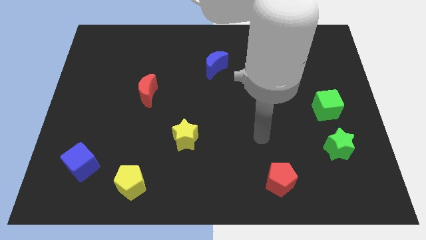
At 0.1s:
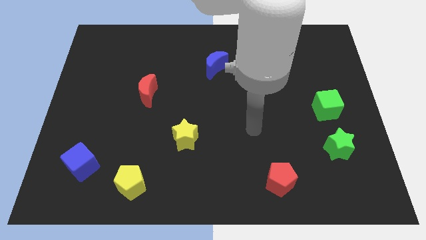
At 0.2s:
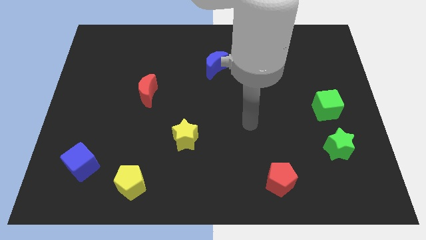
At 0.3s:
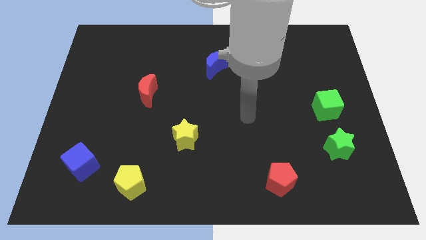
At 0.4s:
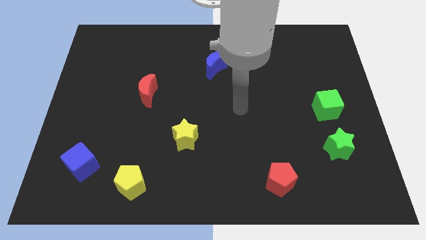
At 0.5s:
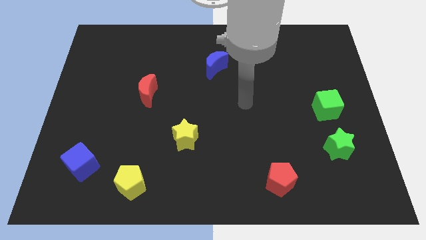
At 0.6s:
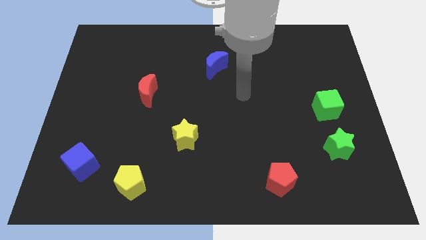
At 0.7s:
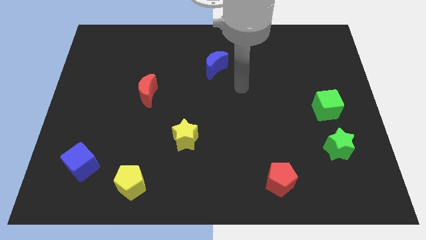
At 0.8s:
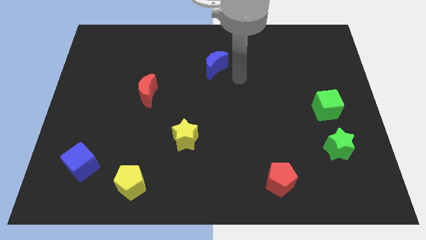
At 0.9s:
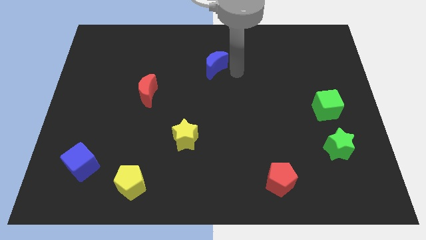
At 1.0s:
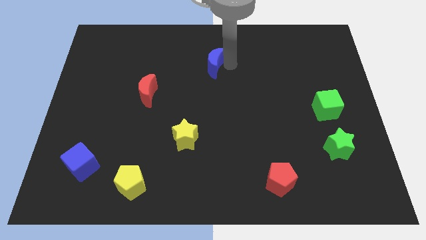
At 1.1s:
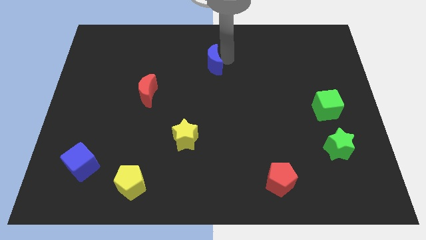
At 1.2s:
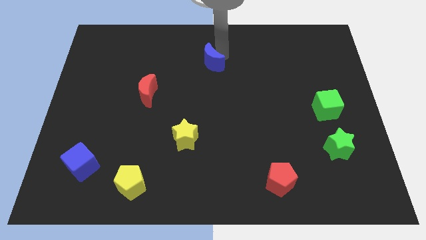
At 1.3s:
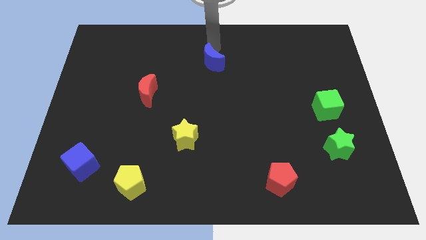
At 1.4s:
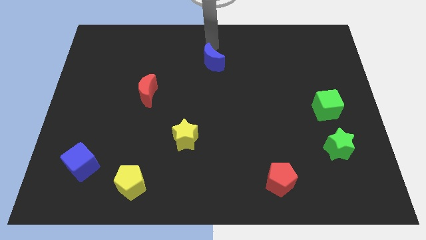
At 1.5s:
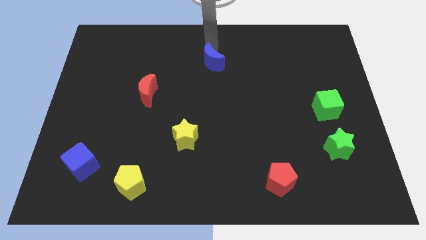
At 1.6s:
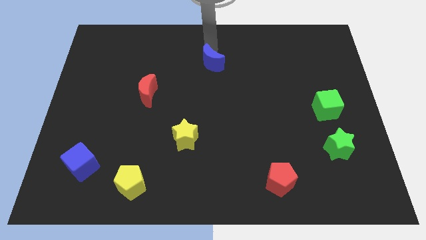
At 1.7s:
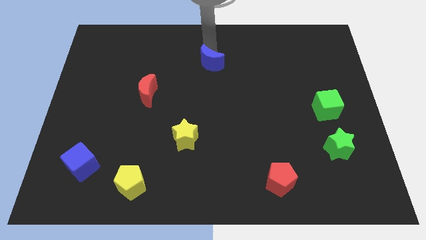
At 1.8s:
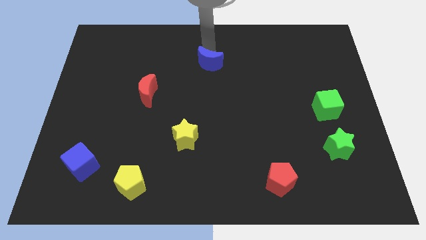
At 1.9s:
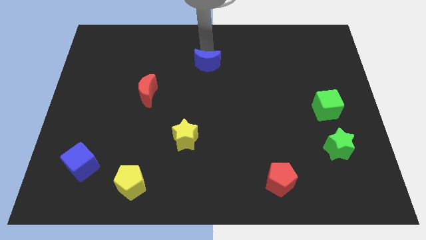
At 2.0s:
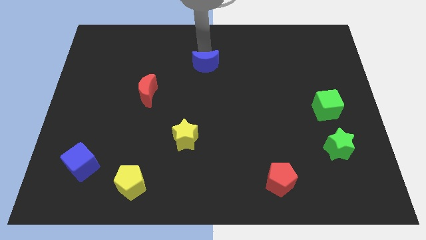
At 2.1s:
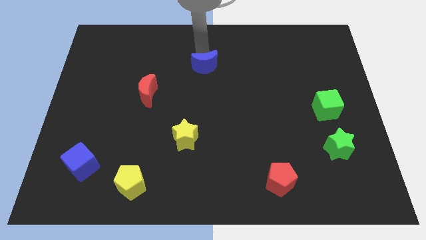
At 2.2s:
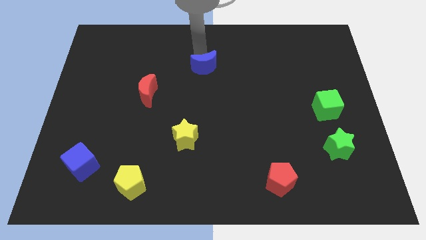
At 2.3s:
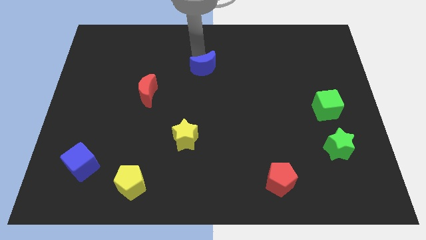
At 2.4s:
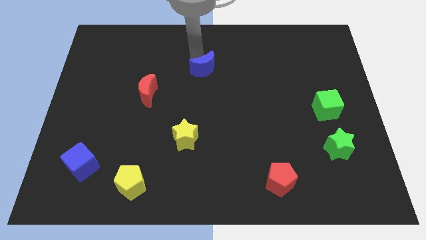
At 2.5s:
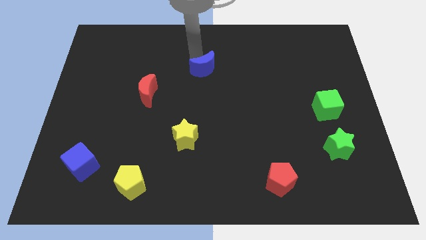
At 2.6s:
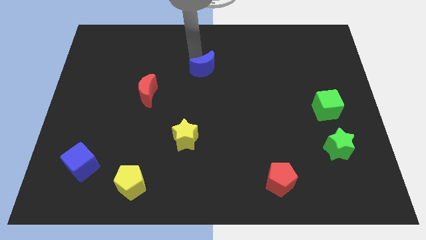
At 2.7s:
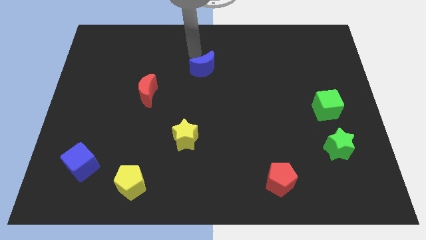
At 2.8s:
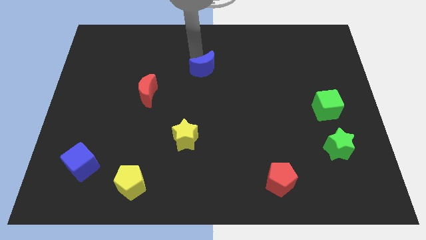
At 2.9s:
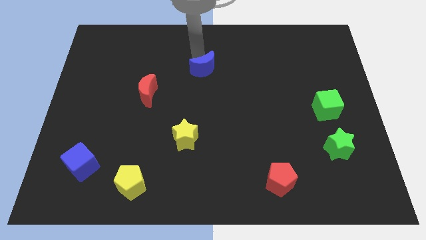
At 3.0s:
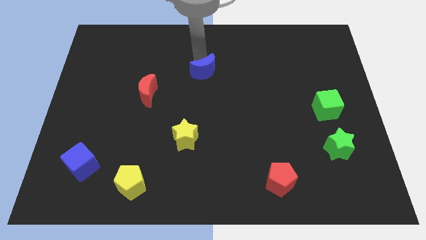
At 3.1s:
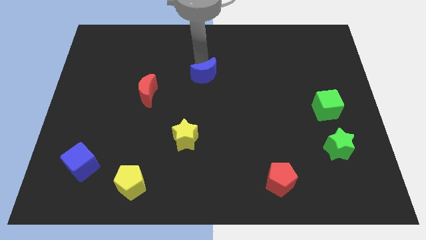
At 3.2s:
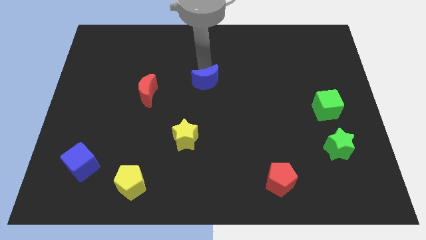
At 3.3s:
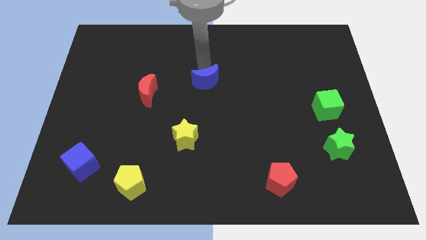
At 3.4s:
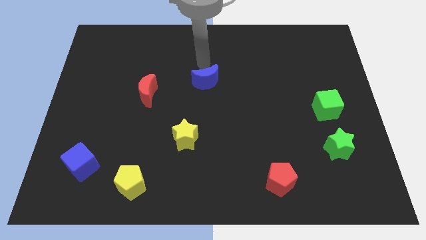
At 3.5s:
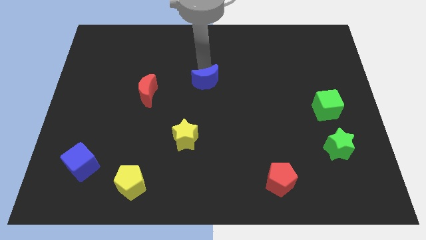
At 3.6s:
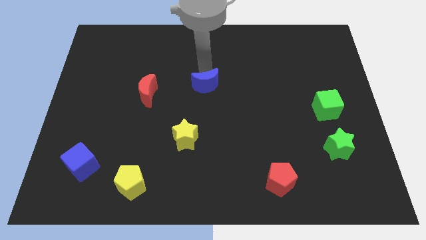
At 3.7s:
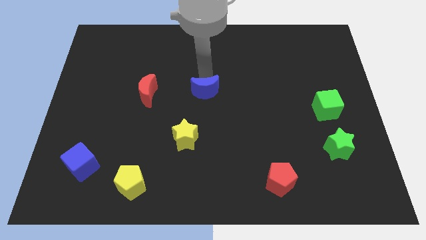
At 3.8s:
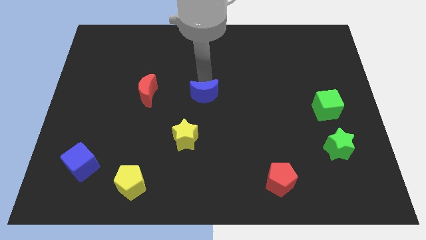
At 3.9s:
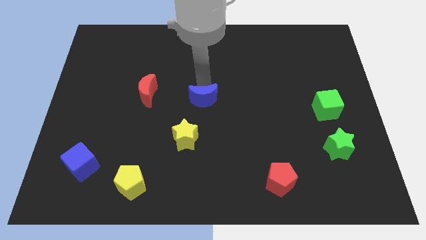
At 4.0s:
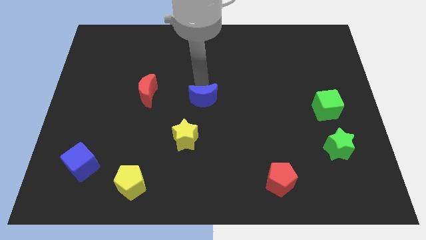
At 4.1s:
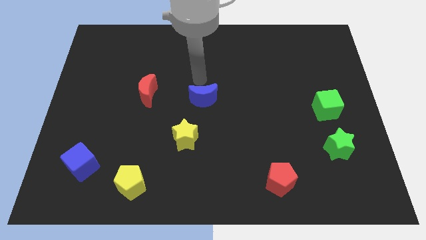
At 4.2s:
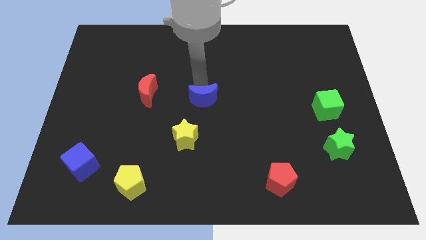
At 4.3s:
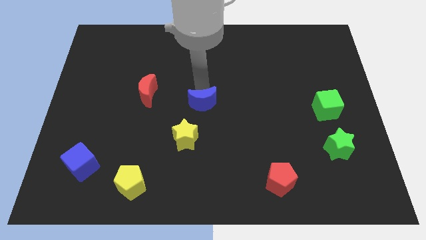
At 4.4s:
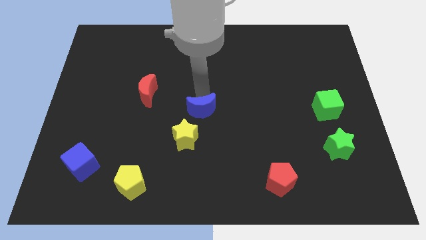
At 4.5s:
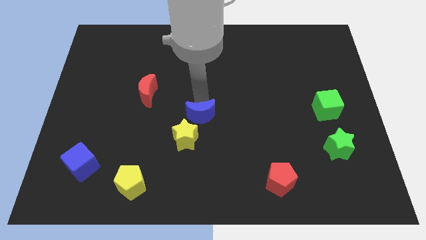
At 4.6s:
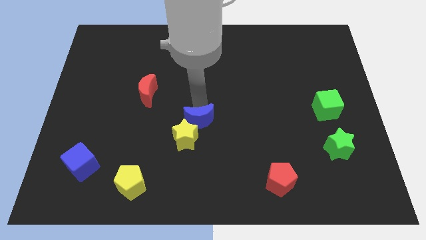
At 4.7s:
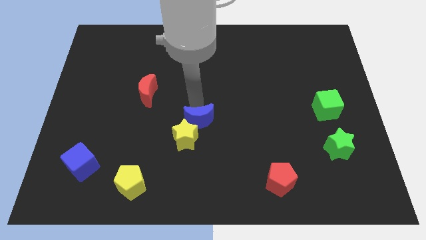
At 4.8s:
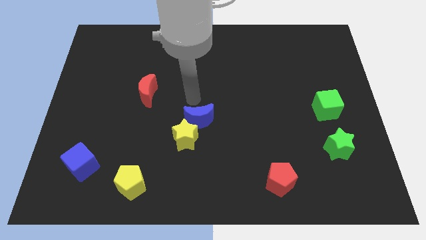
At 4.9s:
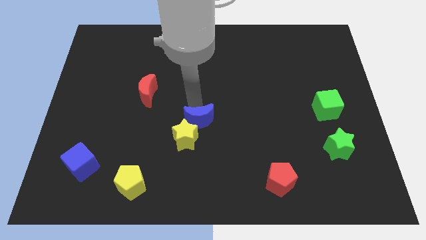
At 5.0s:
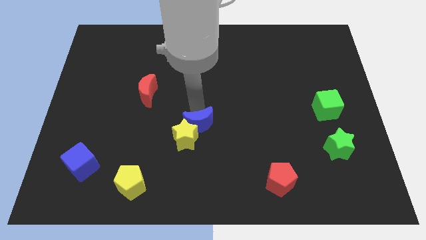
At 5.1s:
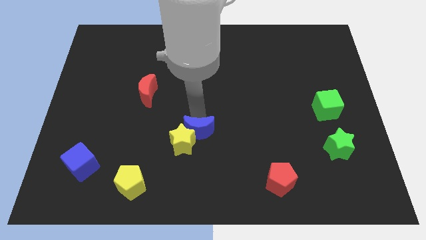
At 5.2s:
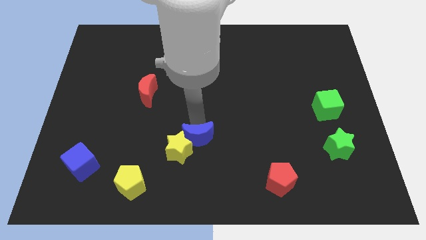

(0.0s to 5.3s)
push the blue moon downwards

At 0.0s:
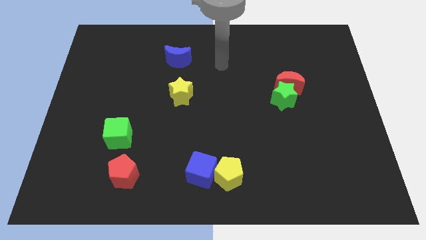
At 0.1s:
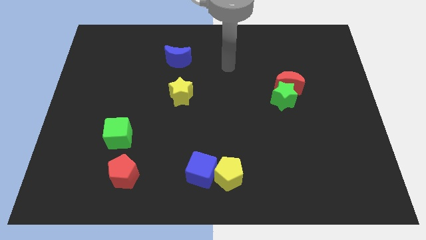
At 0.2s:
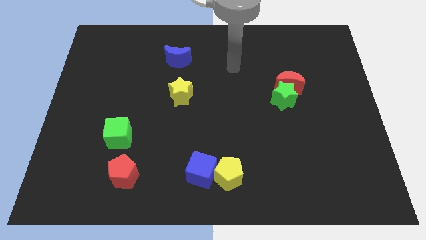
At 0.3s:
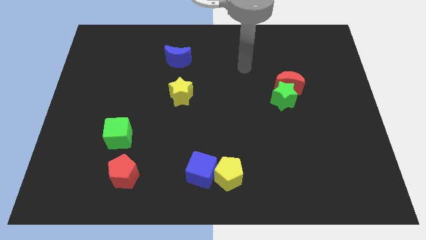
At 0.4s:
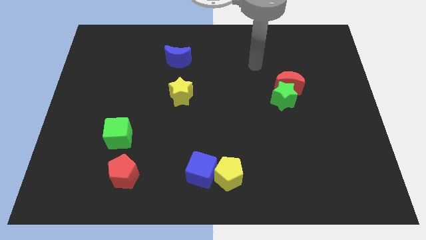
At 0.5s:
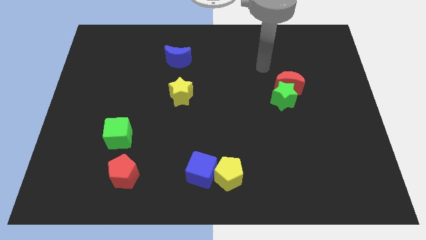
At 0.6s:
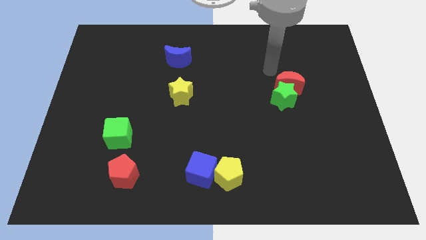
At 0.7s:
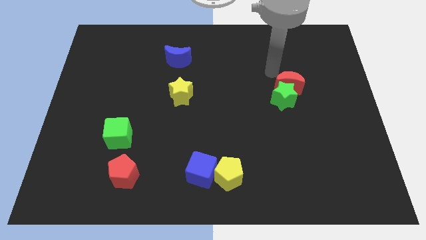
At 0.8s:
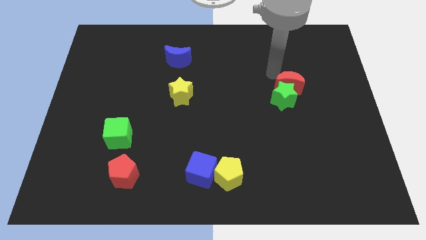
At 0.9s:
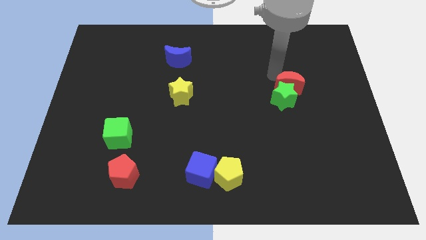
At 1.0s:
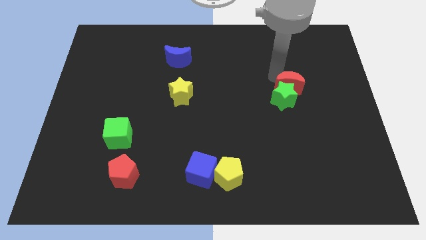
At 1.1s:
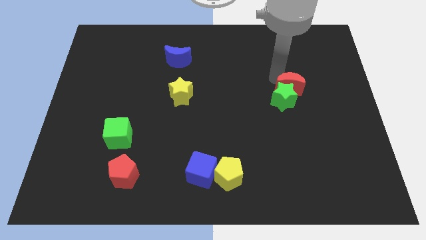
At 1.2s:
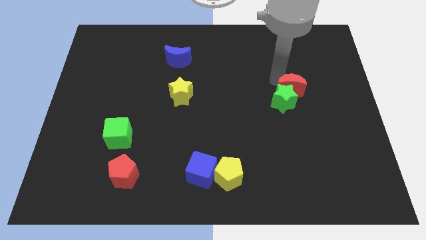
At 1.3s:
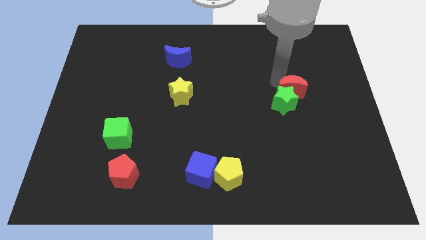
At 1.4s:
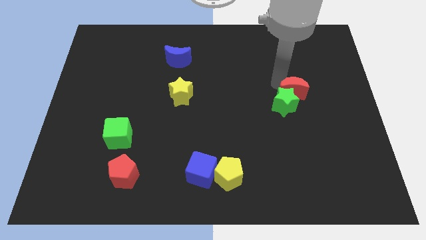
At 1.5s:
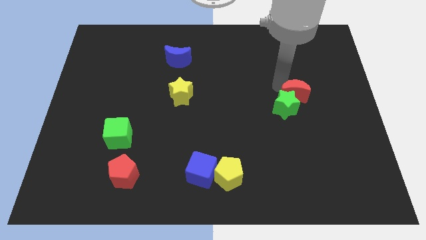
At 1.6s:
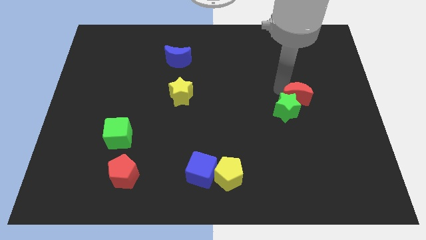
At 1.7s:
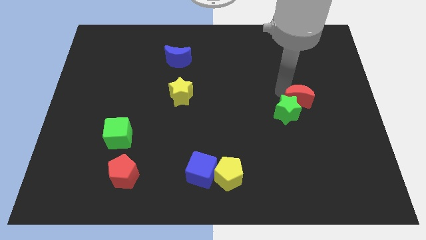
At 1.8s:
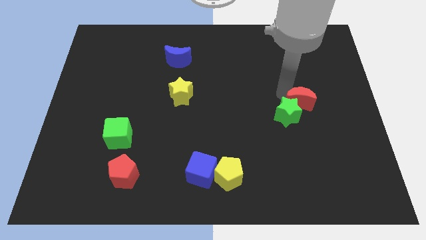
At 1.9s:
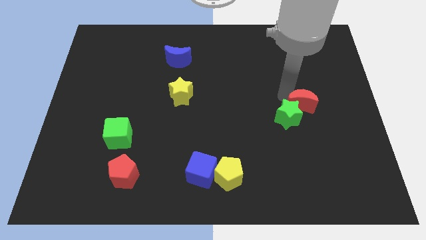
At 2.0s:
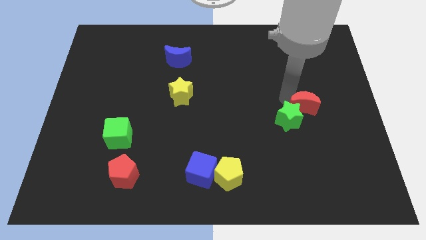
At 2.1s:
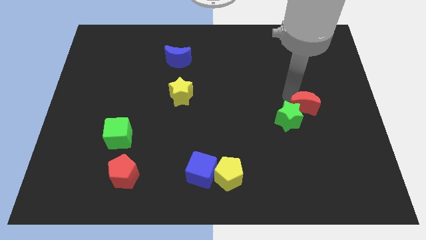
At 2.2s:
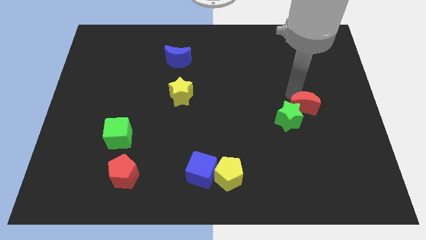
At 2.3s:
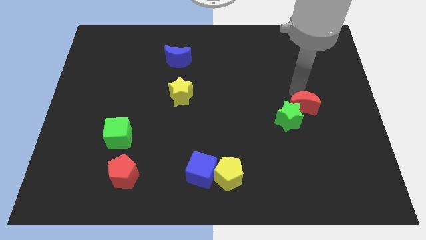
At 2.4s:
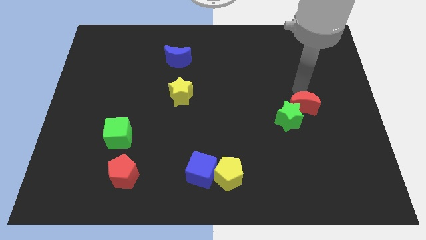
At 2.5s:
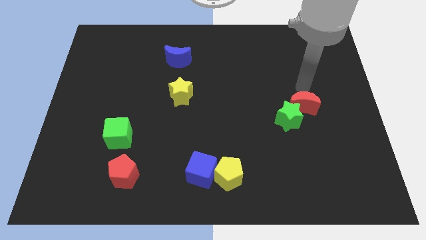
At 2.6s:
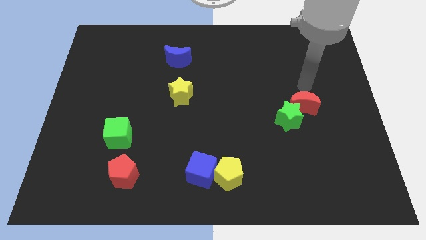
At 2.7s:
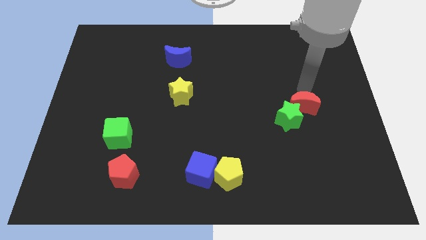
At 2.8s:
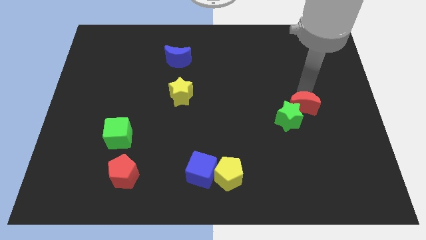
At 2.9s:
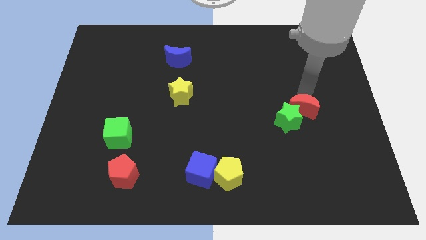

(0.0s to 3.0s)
push the red moon downwards somewhat
